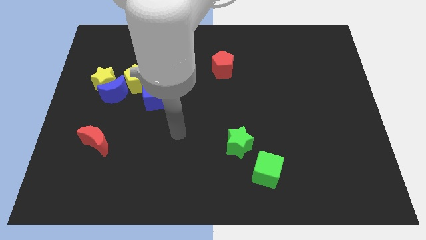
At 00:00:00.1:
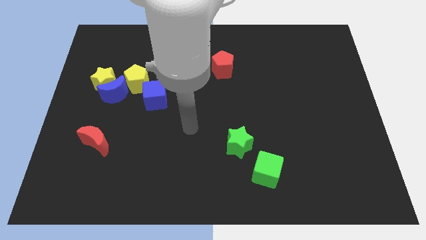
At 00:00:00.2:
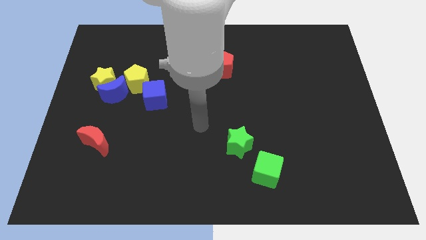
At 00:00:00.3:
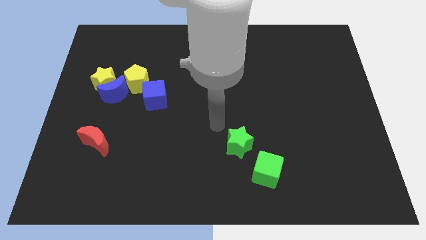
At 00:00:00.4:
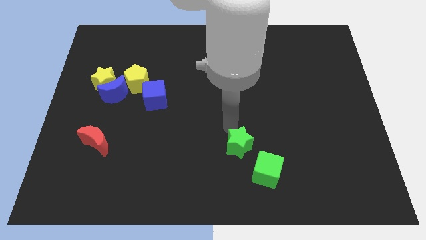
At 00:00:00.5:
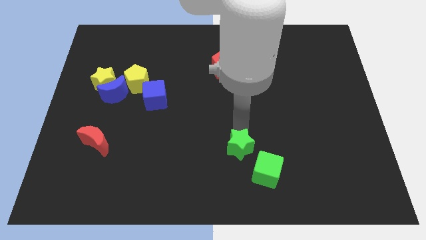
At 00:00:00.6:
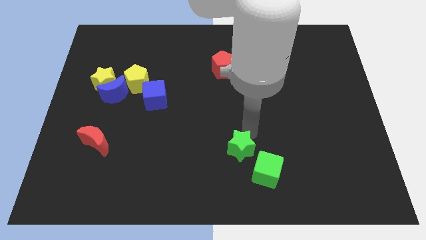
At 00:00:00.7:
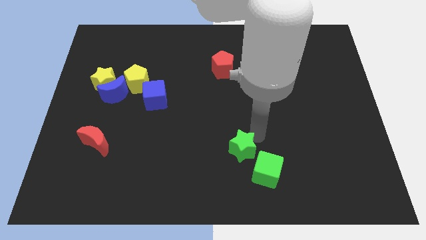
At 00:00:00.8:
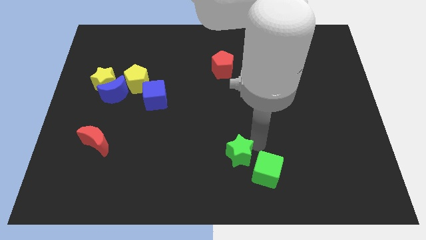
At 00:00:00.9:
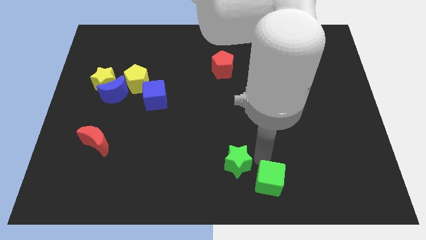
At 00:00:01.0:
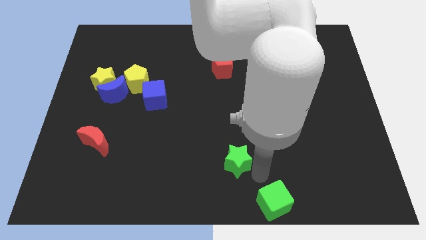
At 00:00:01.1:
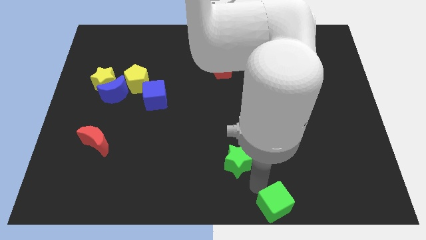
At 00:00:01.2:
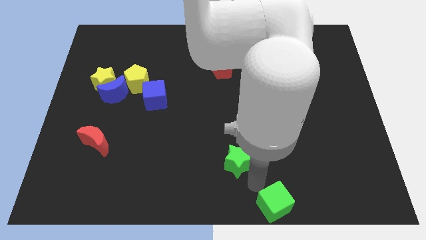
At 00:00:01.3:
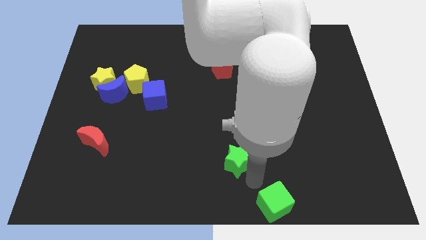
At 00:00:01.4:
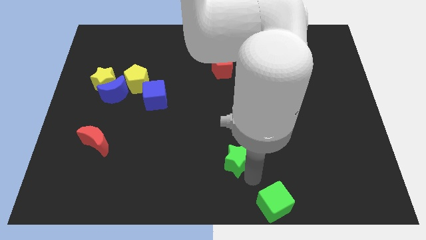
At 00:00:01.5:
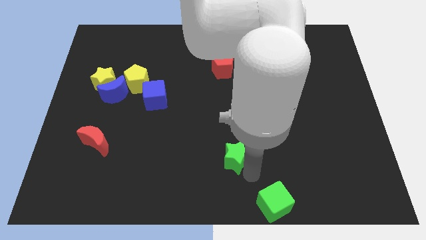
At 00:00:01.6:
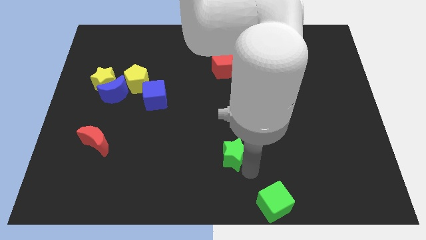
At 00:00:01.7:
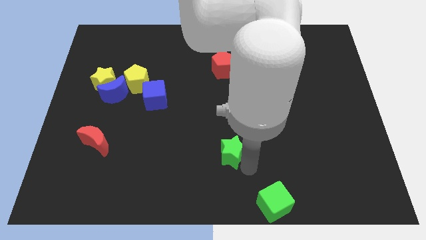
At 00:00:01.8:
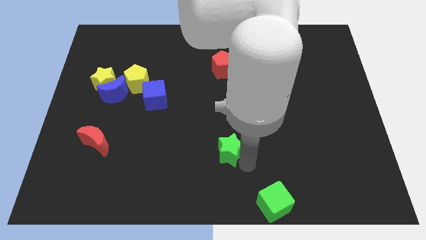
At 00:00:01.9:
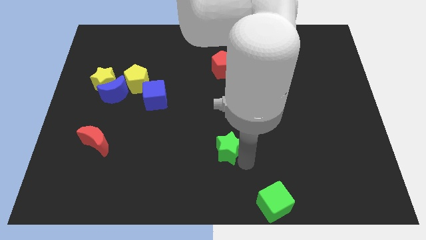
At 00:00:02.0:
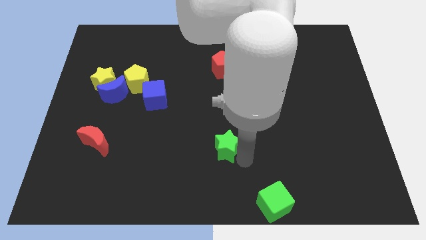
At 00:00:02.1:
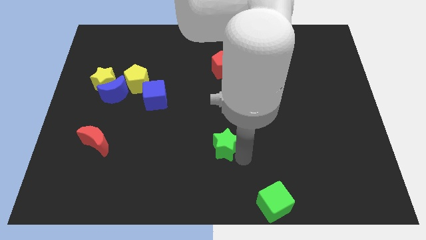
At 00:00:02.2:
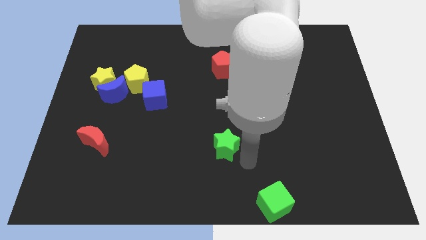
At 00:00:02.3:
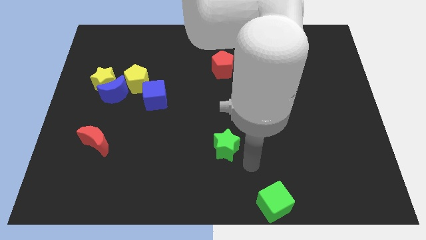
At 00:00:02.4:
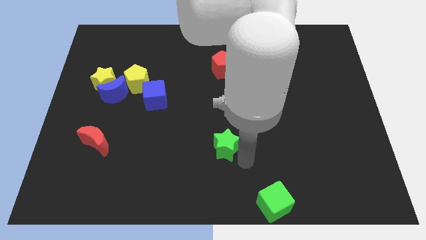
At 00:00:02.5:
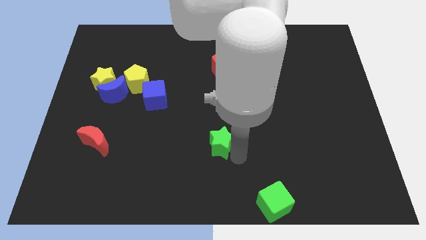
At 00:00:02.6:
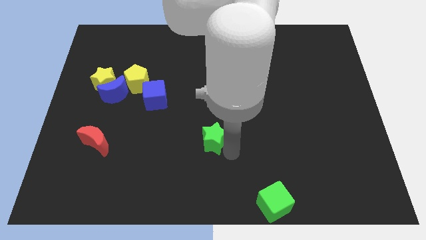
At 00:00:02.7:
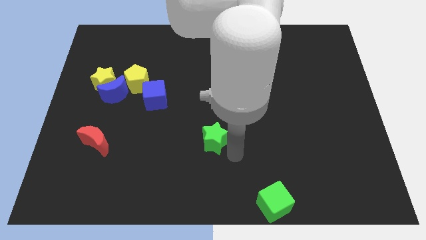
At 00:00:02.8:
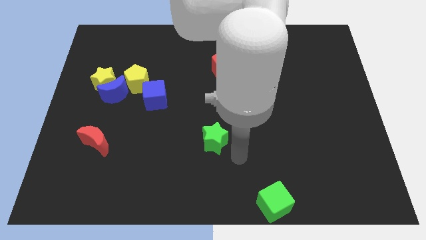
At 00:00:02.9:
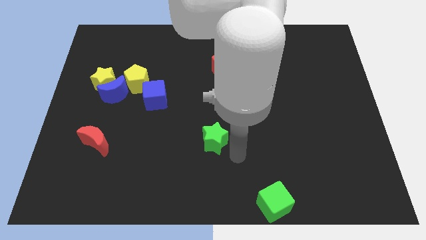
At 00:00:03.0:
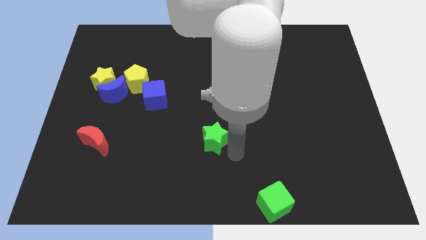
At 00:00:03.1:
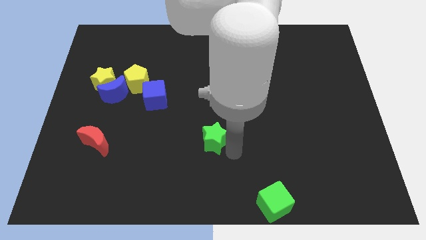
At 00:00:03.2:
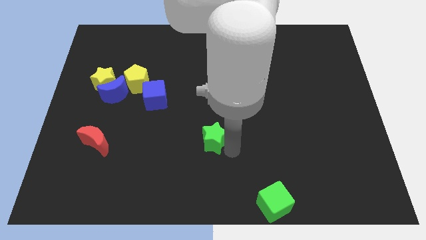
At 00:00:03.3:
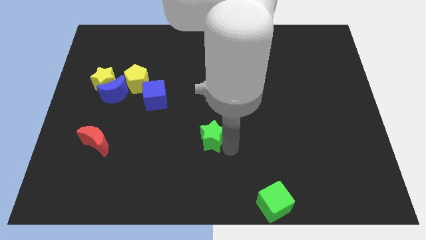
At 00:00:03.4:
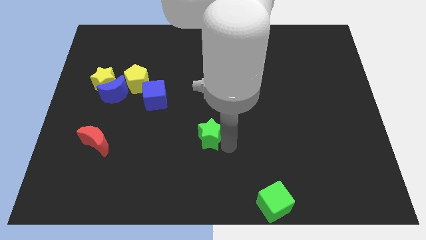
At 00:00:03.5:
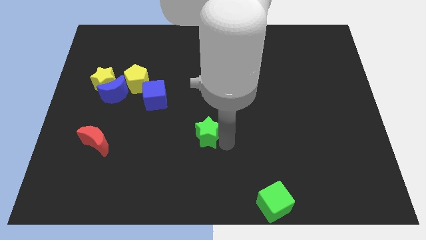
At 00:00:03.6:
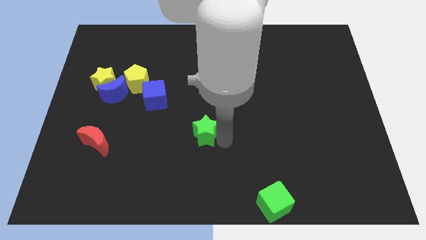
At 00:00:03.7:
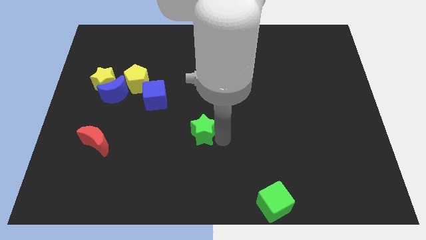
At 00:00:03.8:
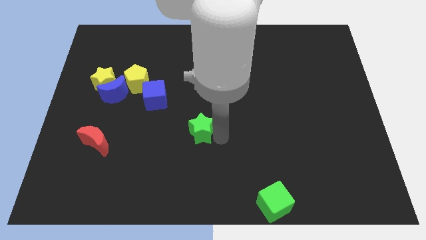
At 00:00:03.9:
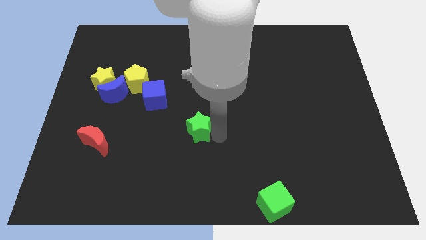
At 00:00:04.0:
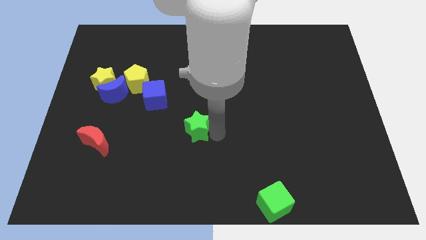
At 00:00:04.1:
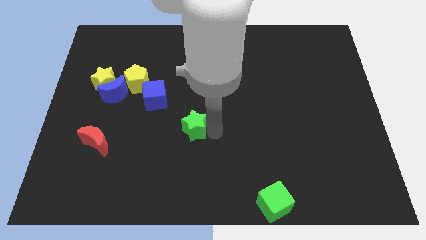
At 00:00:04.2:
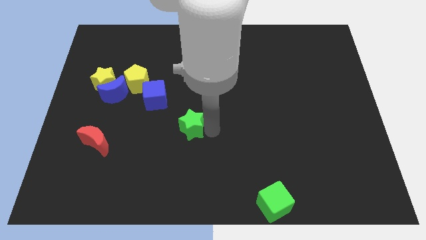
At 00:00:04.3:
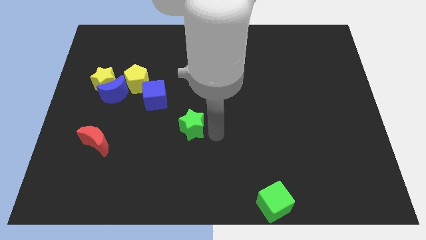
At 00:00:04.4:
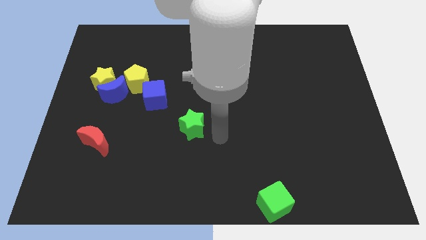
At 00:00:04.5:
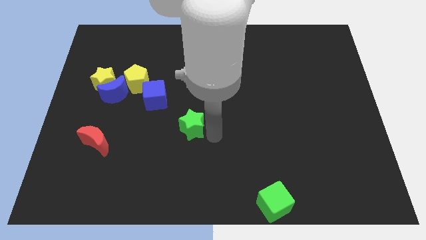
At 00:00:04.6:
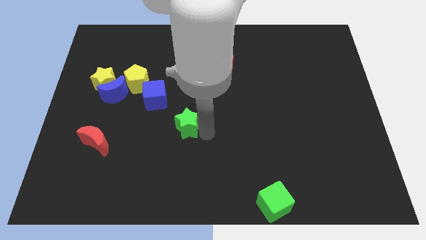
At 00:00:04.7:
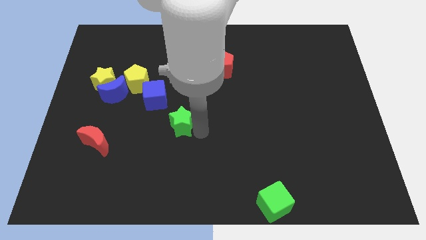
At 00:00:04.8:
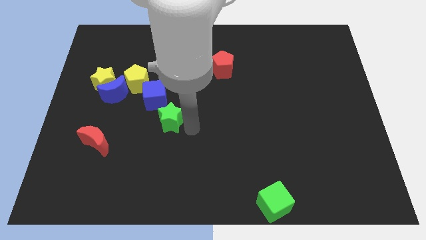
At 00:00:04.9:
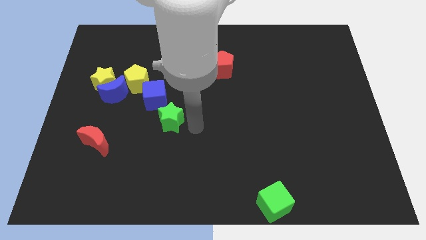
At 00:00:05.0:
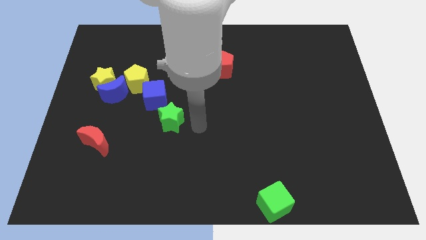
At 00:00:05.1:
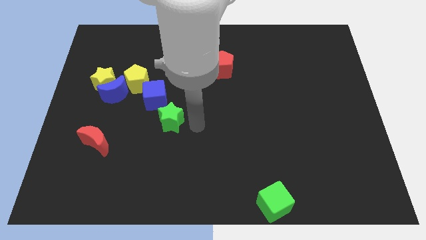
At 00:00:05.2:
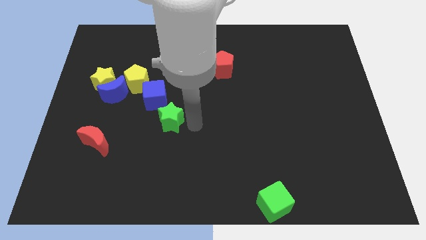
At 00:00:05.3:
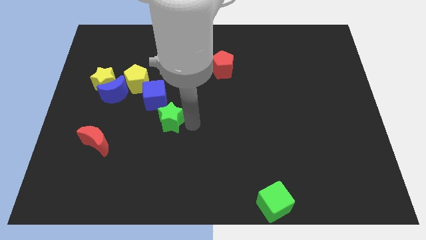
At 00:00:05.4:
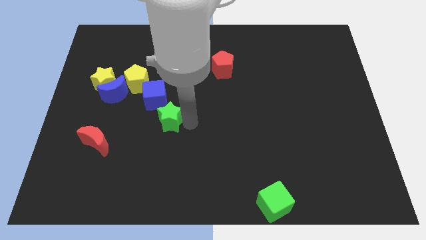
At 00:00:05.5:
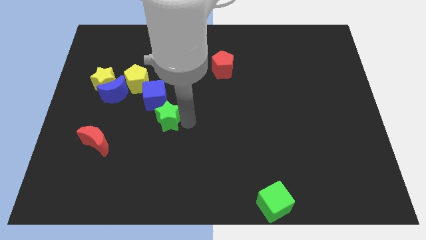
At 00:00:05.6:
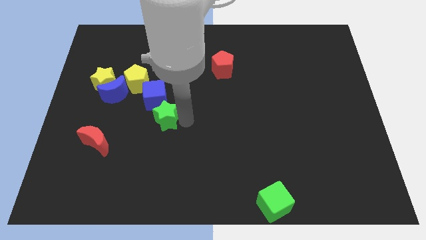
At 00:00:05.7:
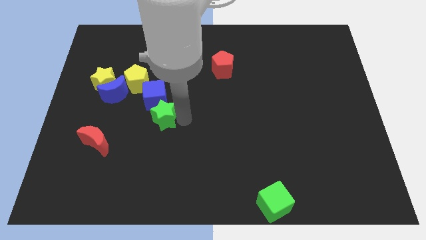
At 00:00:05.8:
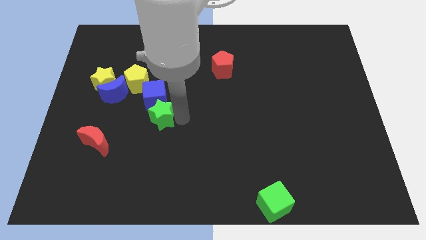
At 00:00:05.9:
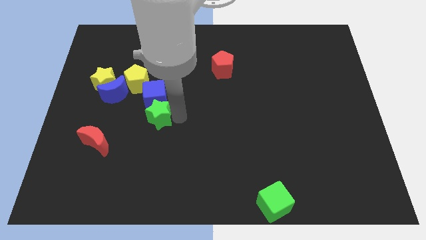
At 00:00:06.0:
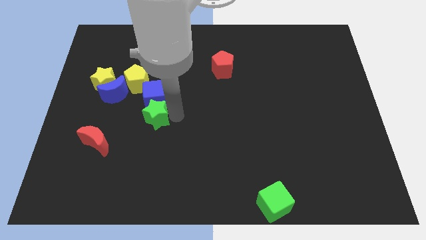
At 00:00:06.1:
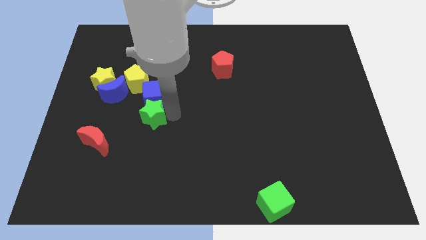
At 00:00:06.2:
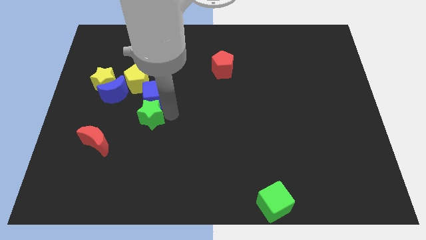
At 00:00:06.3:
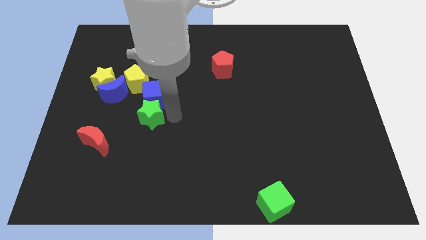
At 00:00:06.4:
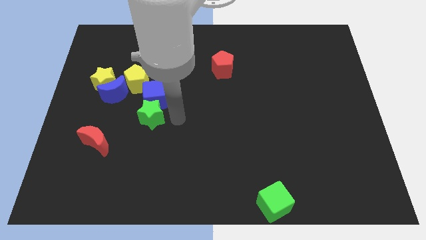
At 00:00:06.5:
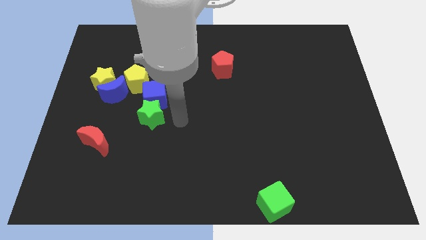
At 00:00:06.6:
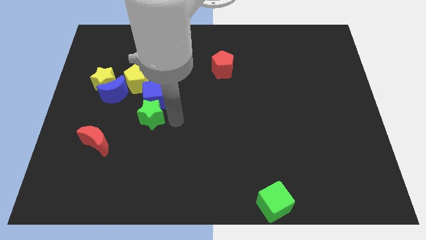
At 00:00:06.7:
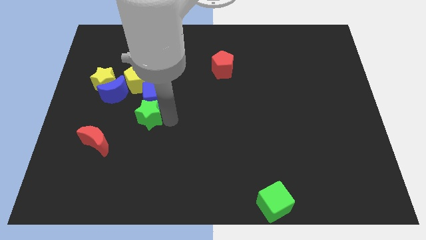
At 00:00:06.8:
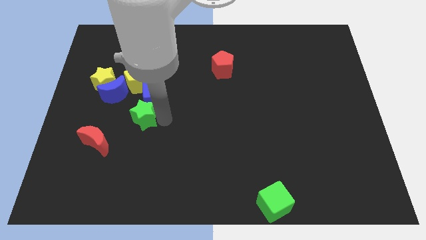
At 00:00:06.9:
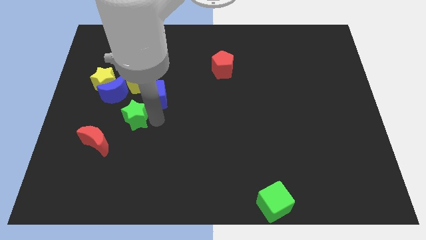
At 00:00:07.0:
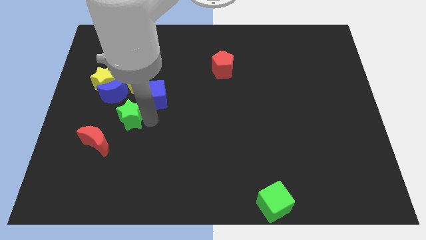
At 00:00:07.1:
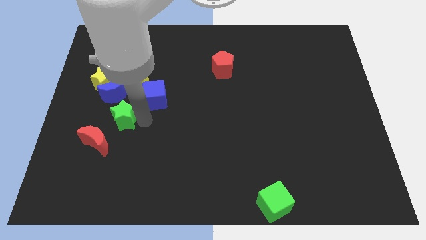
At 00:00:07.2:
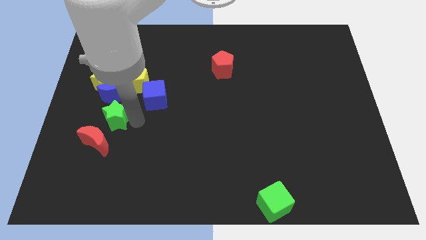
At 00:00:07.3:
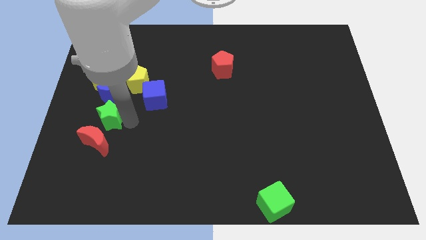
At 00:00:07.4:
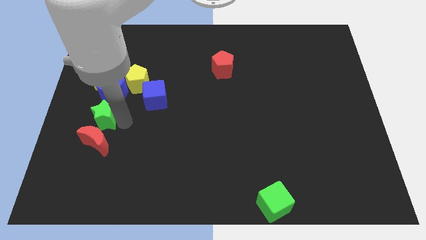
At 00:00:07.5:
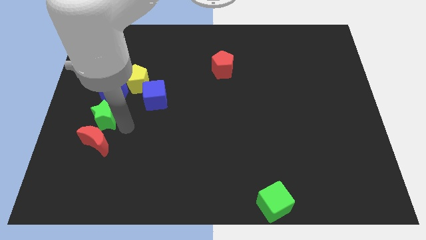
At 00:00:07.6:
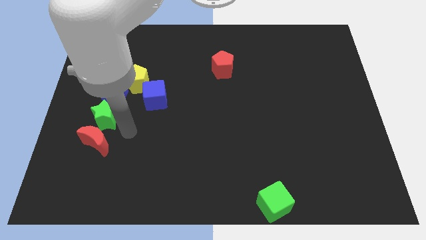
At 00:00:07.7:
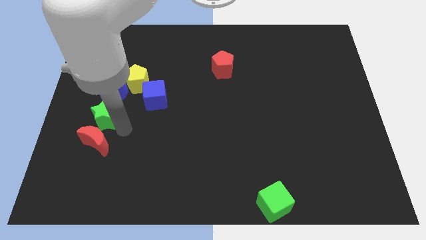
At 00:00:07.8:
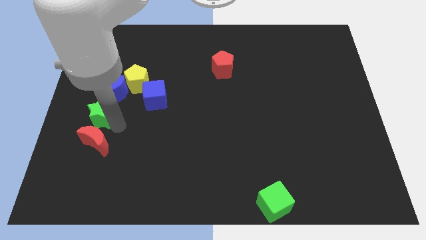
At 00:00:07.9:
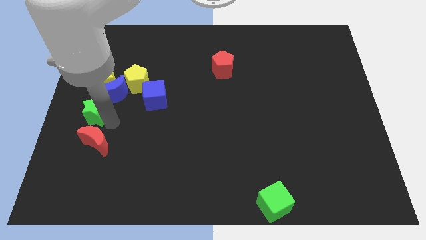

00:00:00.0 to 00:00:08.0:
push the green star to the left side
